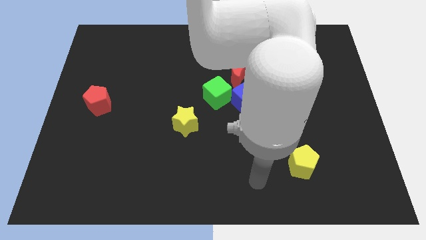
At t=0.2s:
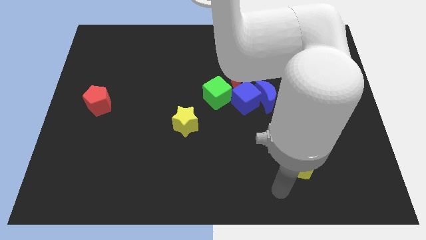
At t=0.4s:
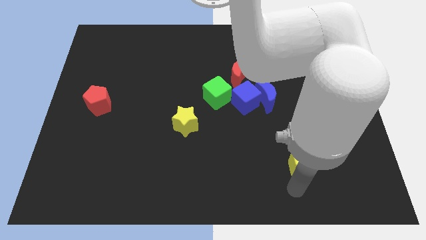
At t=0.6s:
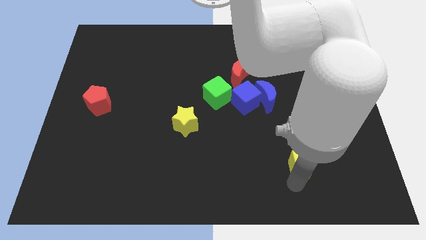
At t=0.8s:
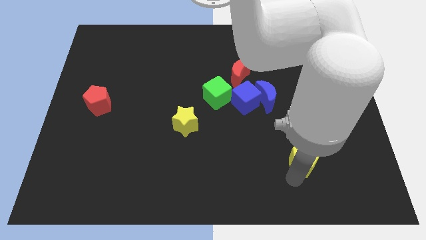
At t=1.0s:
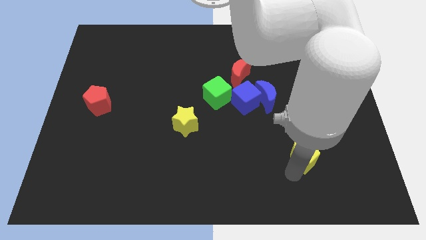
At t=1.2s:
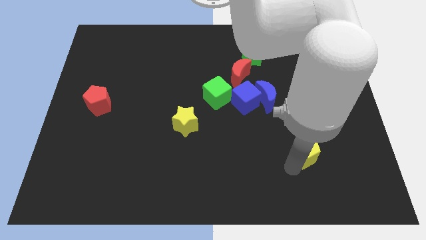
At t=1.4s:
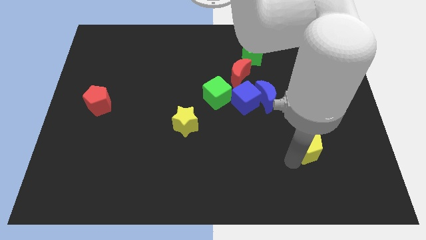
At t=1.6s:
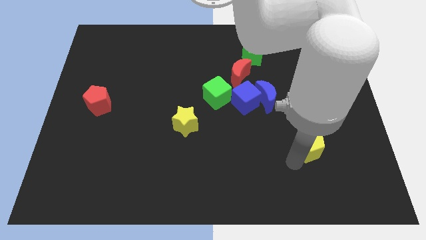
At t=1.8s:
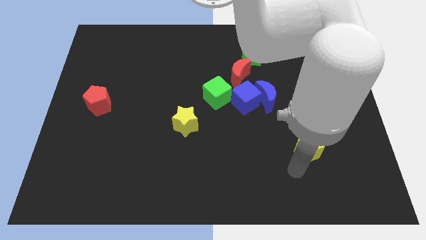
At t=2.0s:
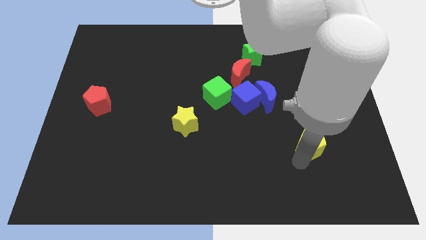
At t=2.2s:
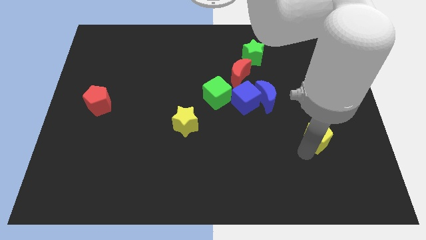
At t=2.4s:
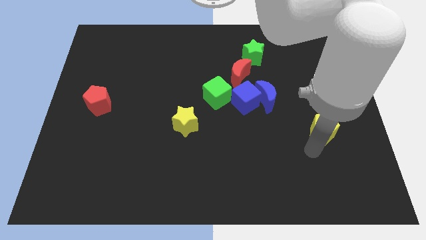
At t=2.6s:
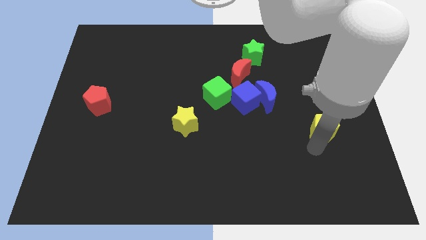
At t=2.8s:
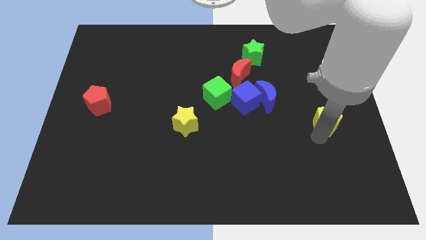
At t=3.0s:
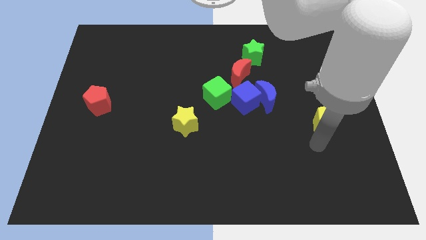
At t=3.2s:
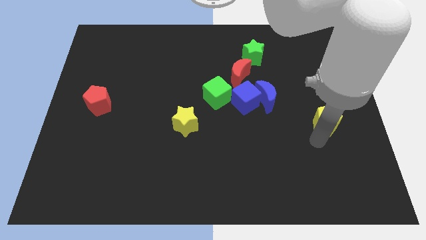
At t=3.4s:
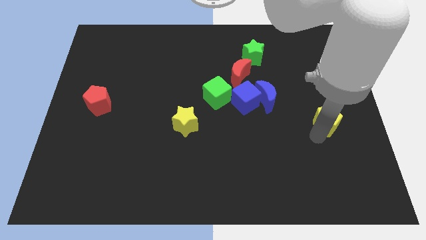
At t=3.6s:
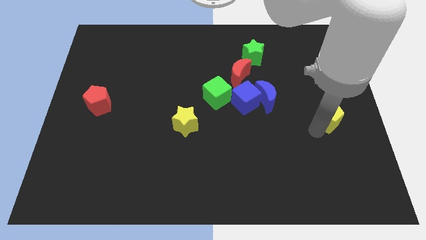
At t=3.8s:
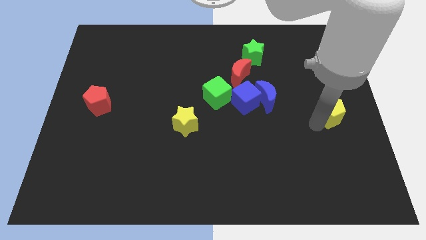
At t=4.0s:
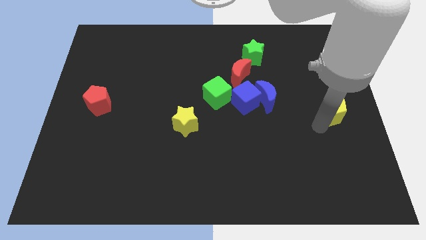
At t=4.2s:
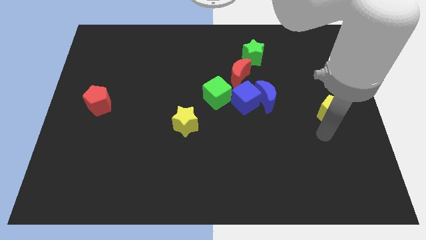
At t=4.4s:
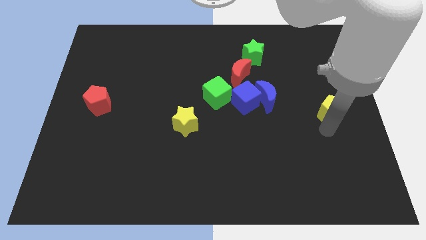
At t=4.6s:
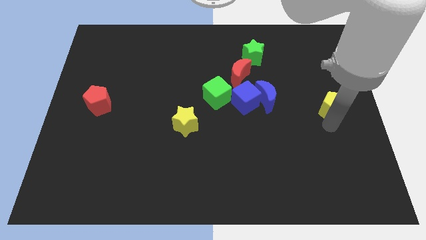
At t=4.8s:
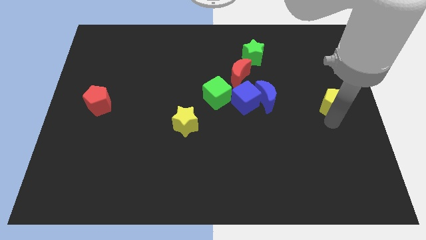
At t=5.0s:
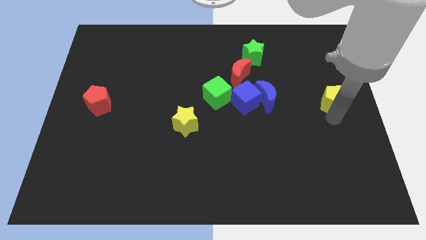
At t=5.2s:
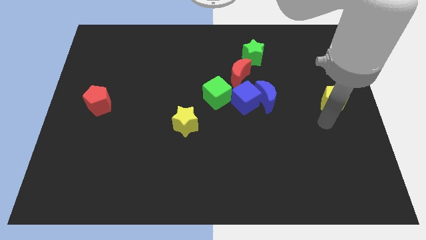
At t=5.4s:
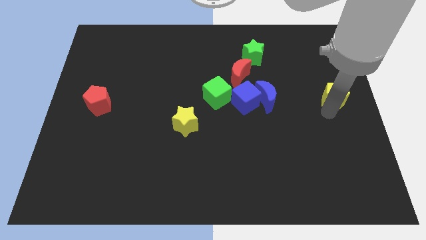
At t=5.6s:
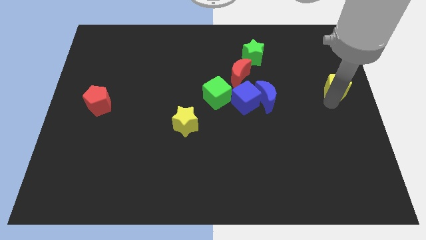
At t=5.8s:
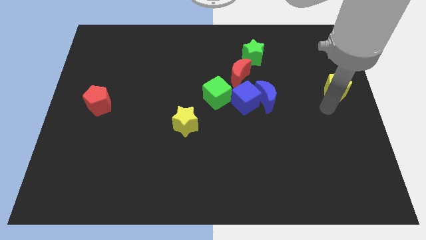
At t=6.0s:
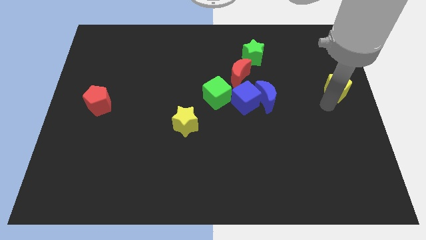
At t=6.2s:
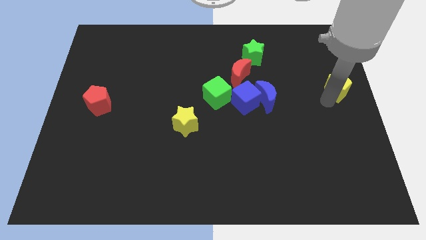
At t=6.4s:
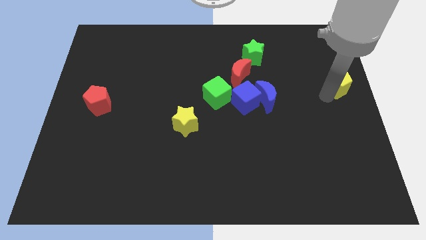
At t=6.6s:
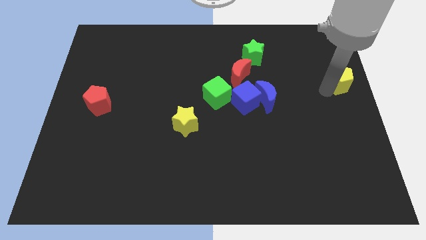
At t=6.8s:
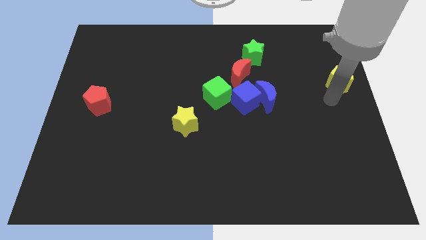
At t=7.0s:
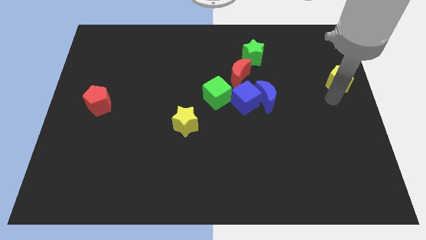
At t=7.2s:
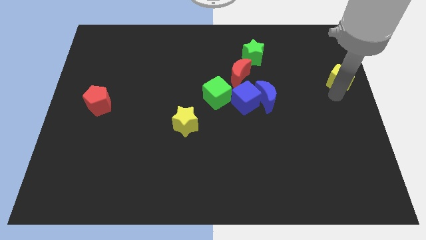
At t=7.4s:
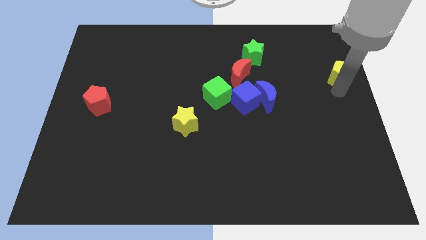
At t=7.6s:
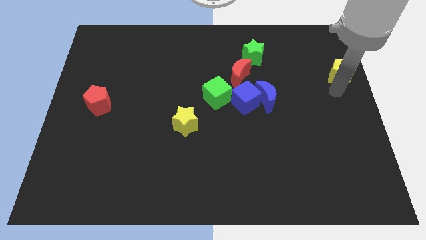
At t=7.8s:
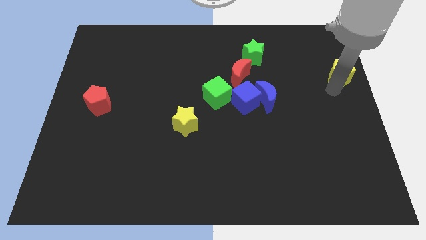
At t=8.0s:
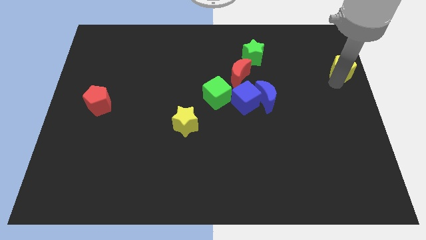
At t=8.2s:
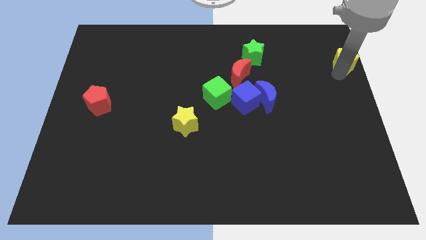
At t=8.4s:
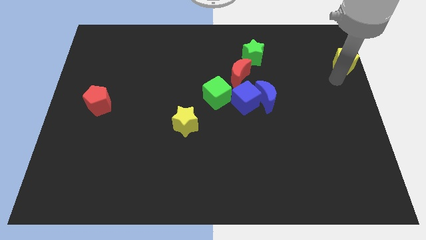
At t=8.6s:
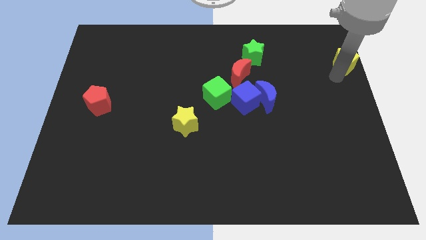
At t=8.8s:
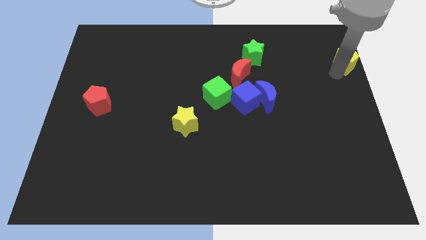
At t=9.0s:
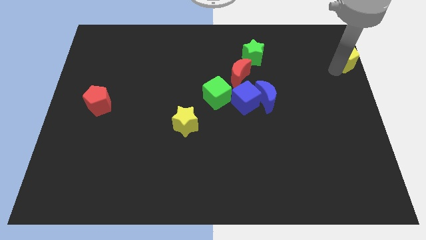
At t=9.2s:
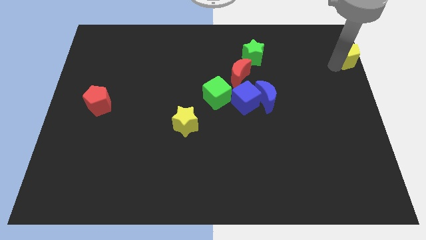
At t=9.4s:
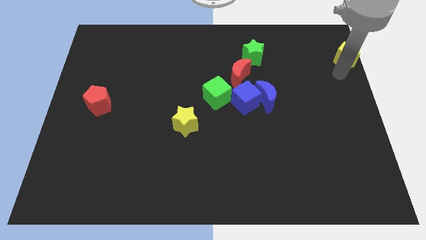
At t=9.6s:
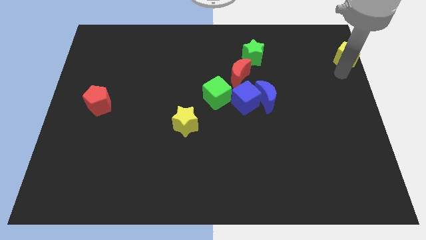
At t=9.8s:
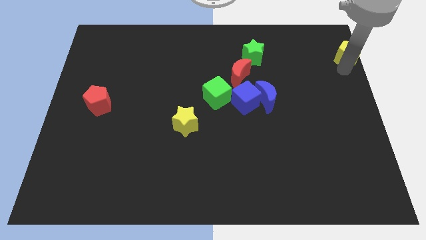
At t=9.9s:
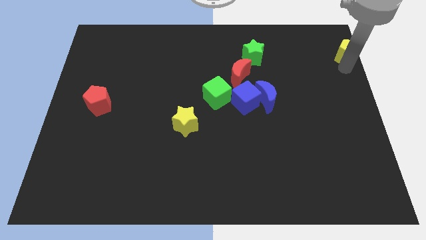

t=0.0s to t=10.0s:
move the yellow pentagon to the top right corner
